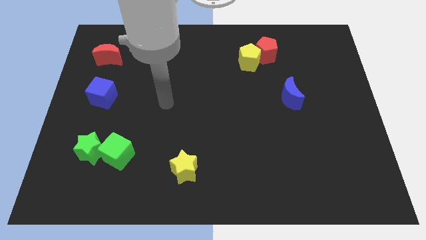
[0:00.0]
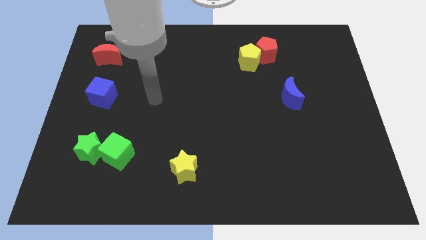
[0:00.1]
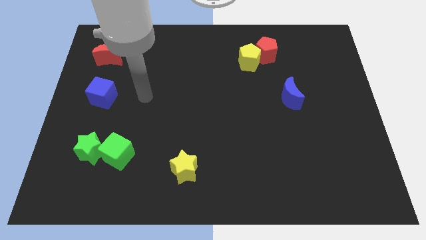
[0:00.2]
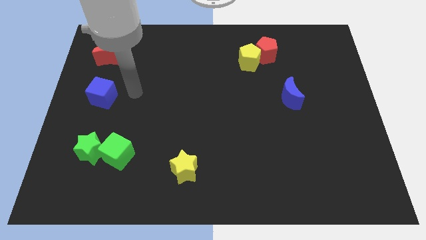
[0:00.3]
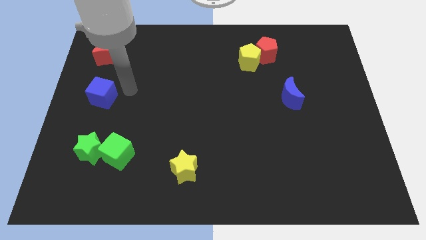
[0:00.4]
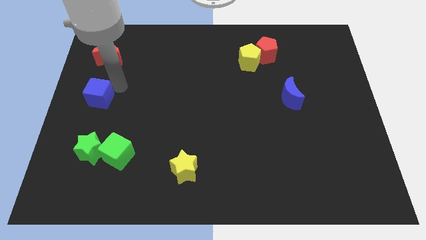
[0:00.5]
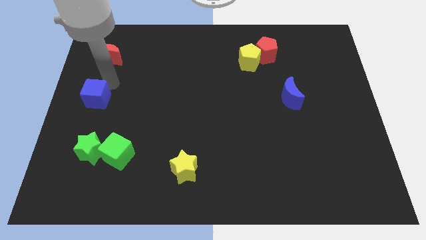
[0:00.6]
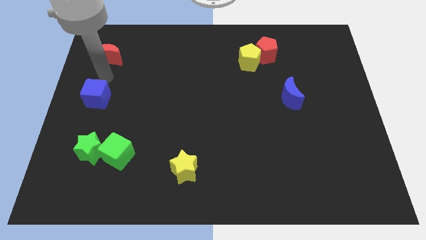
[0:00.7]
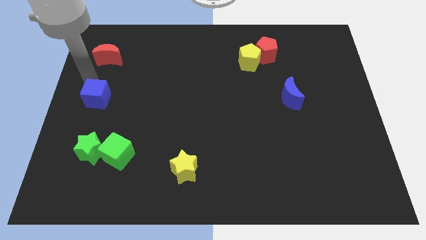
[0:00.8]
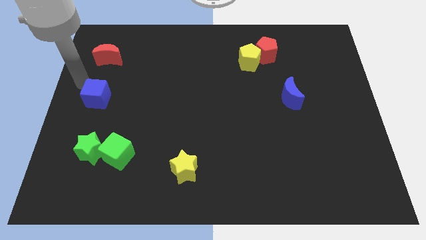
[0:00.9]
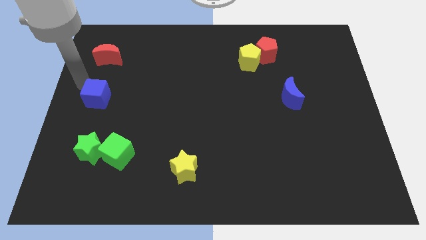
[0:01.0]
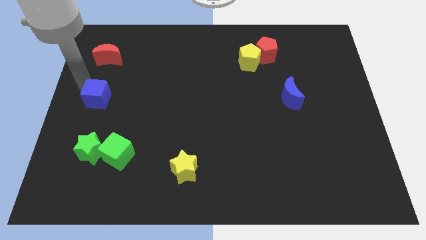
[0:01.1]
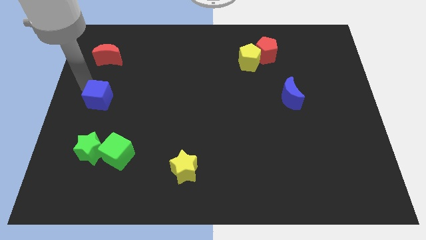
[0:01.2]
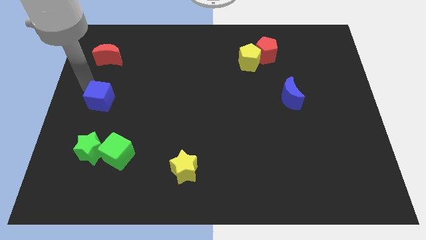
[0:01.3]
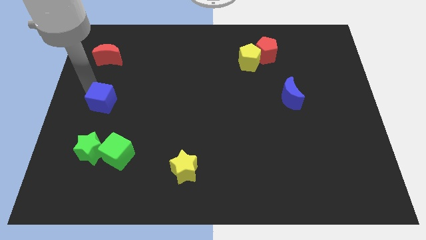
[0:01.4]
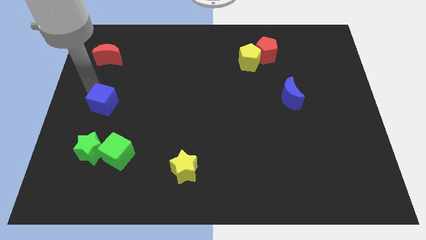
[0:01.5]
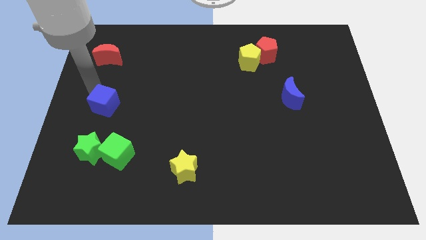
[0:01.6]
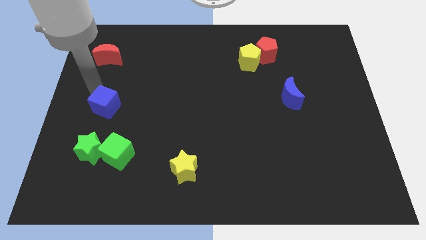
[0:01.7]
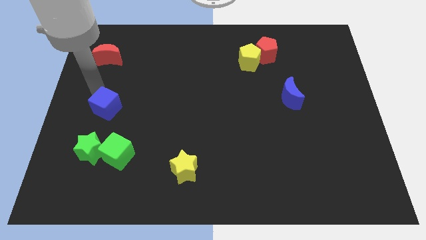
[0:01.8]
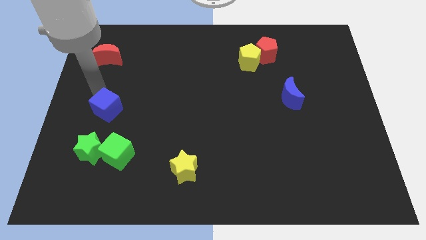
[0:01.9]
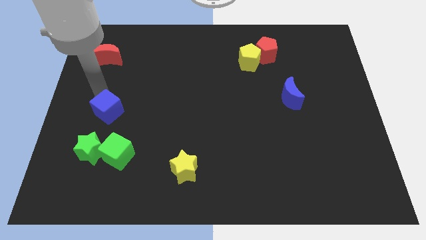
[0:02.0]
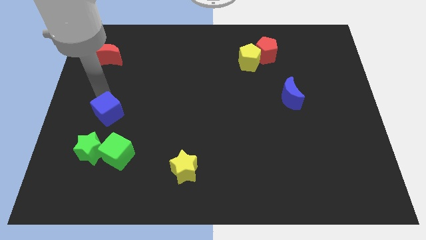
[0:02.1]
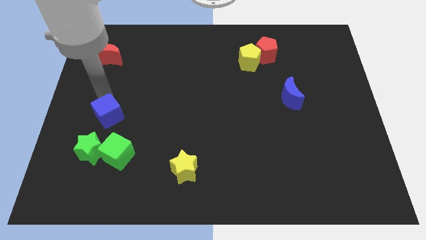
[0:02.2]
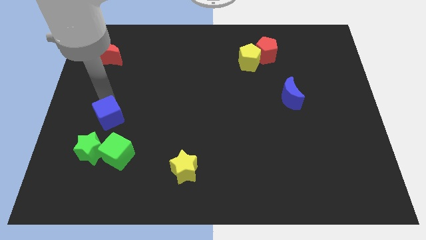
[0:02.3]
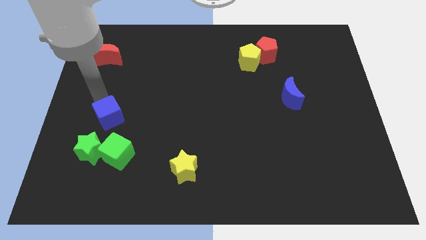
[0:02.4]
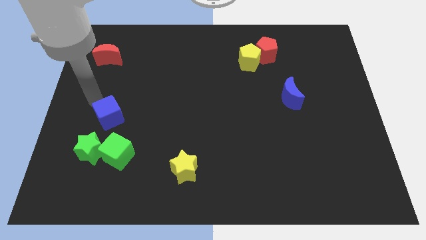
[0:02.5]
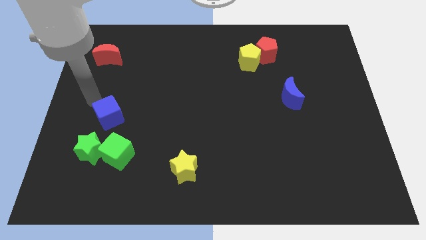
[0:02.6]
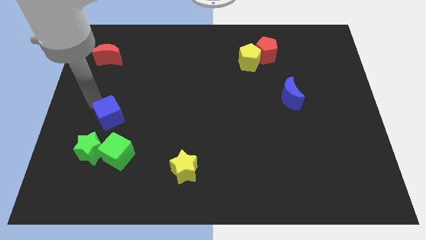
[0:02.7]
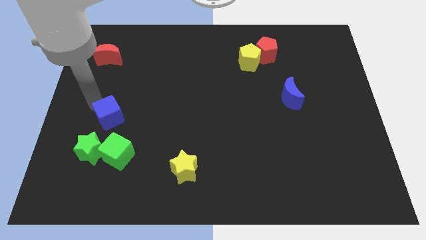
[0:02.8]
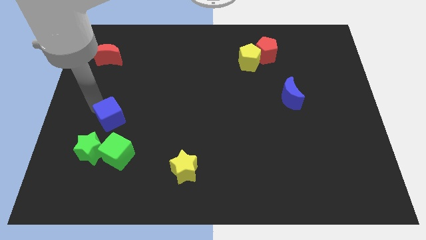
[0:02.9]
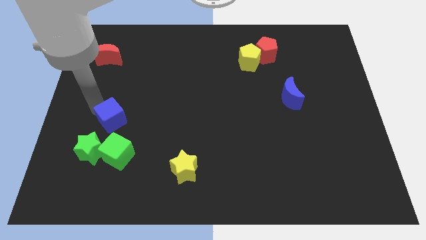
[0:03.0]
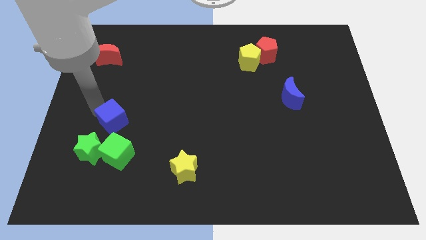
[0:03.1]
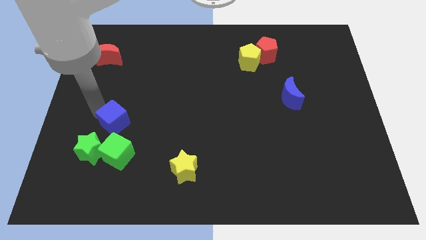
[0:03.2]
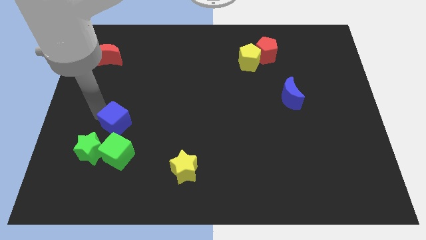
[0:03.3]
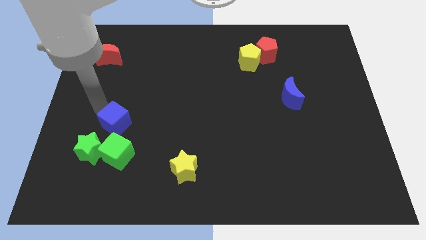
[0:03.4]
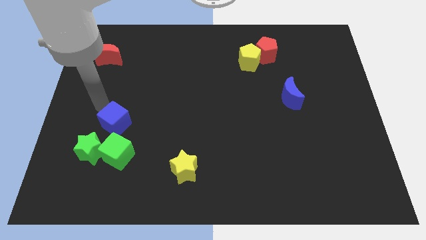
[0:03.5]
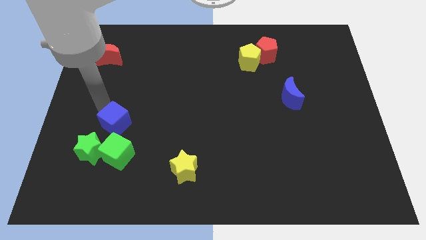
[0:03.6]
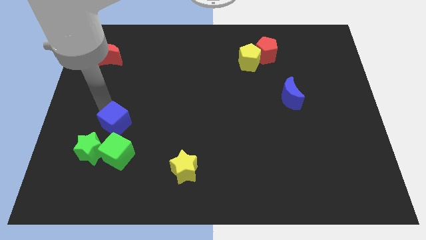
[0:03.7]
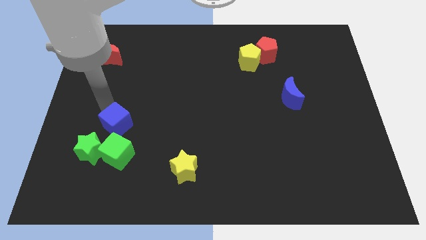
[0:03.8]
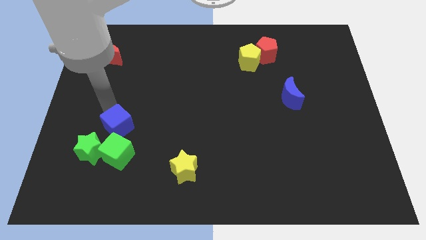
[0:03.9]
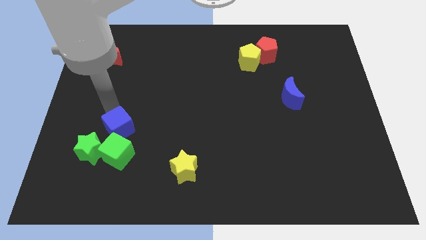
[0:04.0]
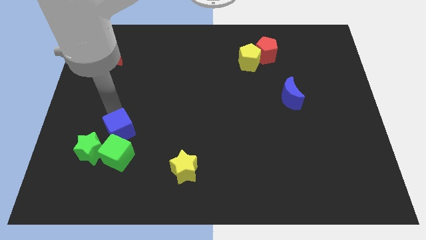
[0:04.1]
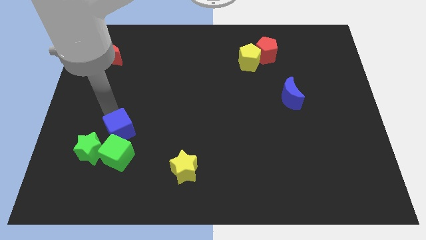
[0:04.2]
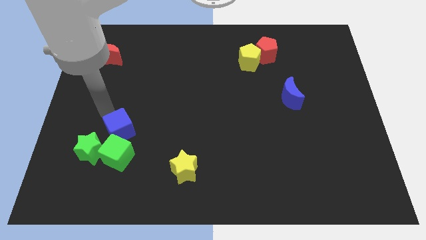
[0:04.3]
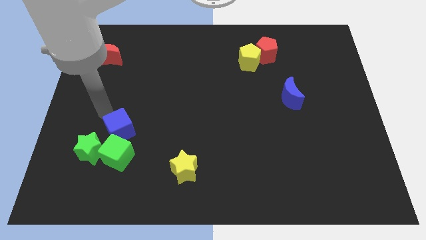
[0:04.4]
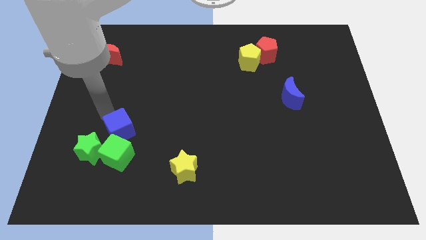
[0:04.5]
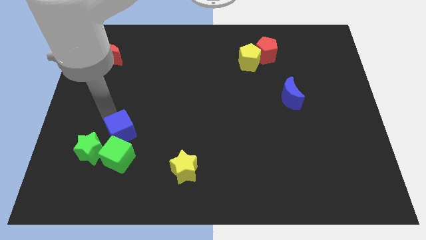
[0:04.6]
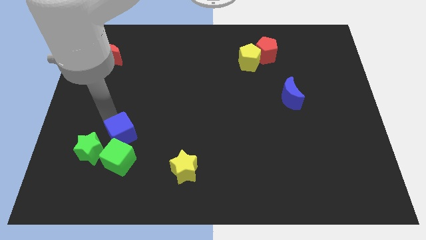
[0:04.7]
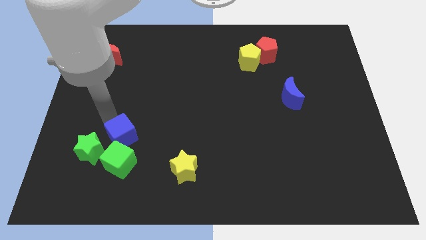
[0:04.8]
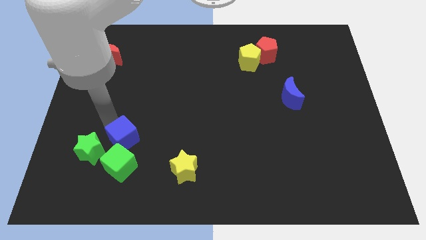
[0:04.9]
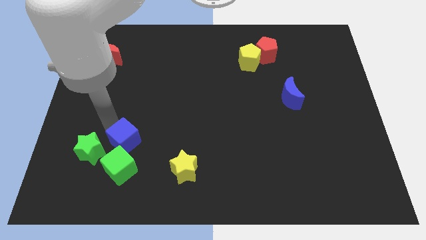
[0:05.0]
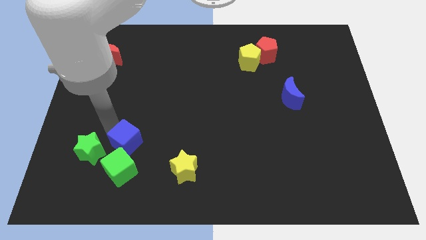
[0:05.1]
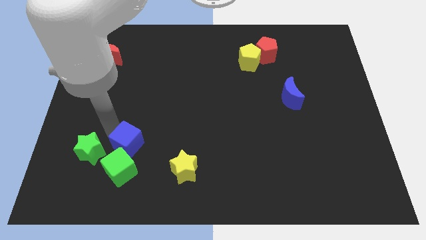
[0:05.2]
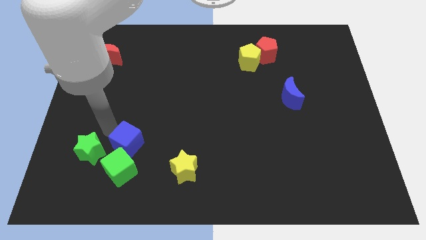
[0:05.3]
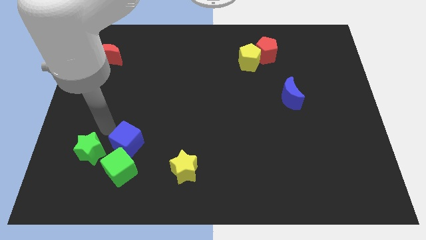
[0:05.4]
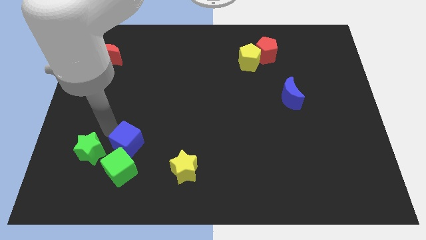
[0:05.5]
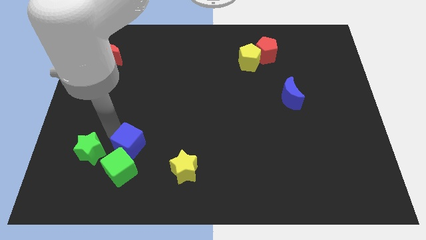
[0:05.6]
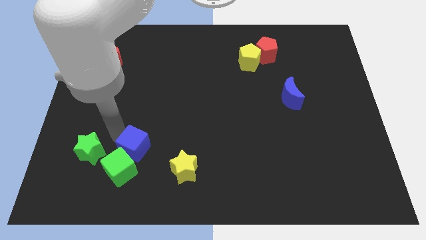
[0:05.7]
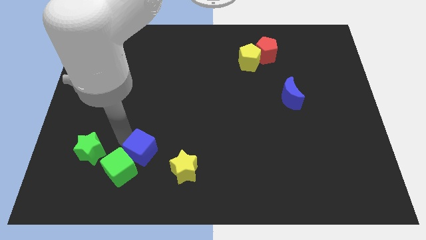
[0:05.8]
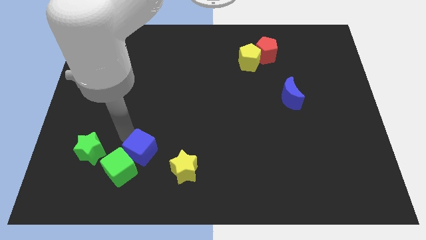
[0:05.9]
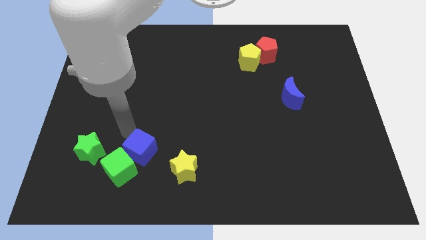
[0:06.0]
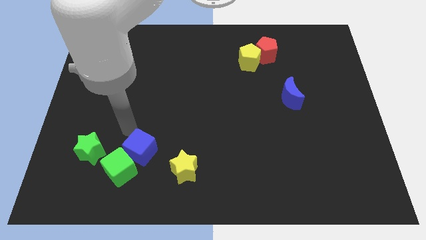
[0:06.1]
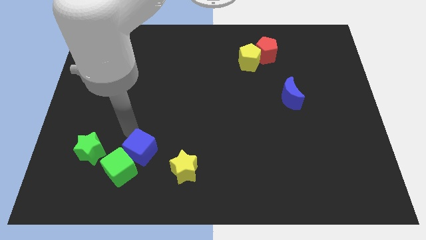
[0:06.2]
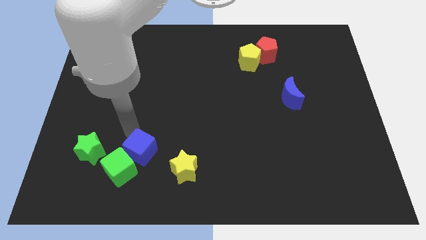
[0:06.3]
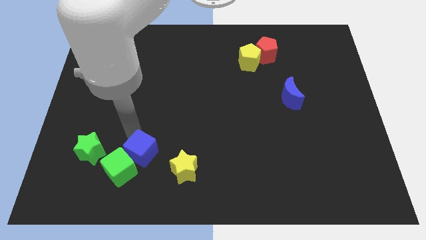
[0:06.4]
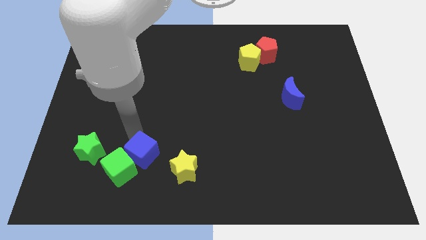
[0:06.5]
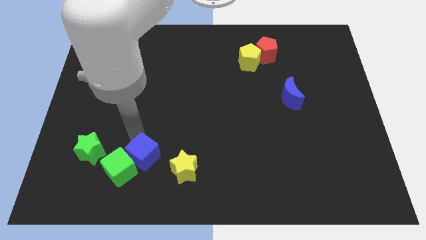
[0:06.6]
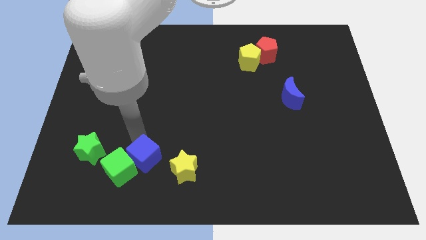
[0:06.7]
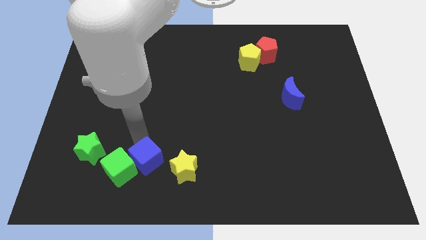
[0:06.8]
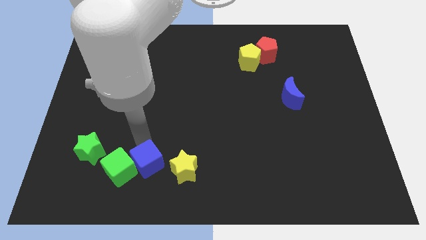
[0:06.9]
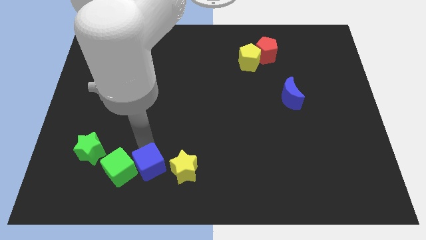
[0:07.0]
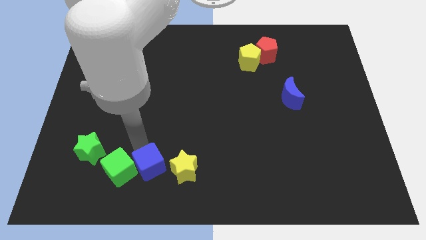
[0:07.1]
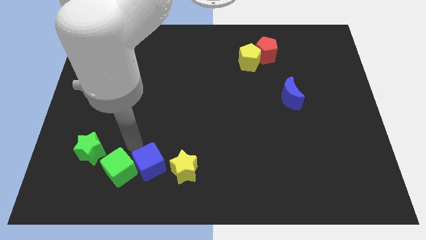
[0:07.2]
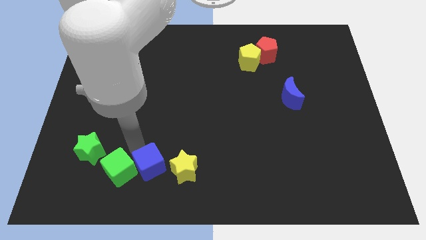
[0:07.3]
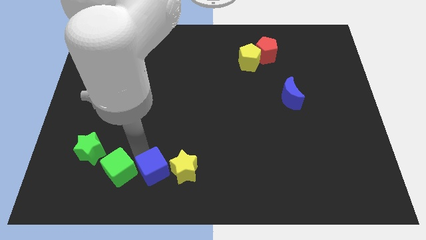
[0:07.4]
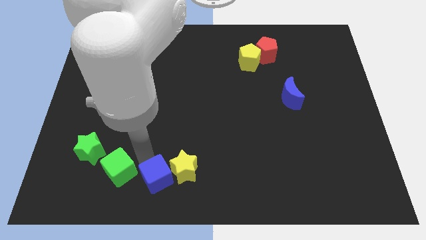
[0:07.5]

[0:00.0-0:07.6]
push the blue cube to the bottom side
